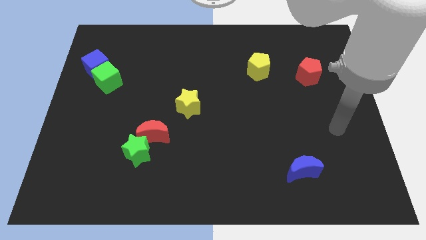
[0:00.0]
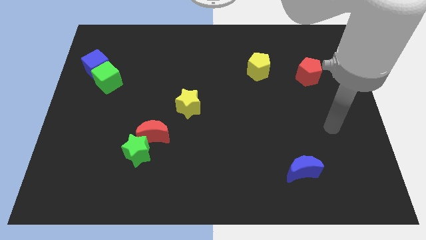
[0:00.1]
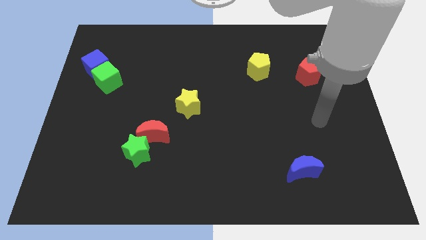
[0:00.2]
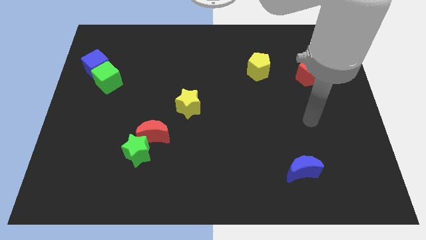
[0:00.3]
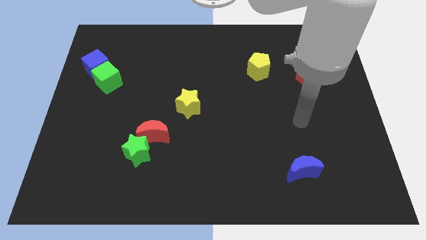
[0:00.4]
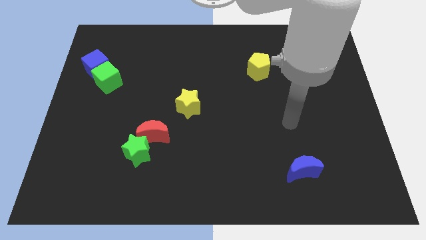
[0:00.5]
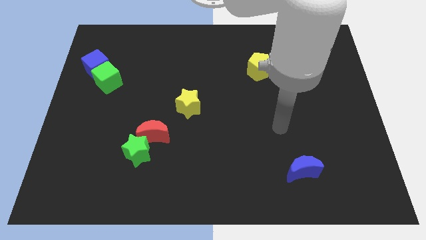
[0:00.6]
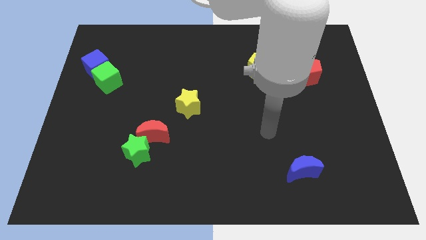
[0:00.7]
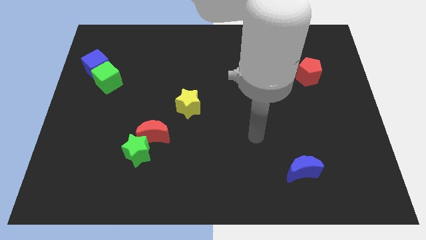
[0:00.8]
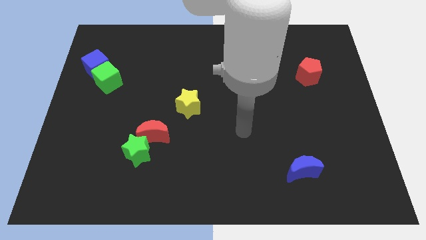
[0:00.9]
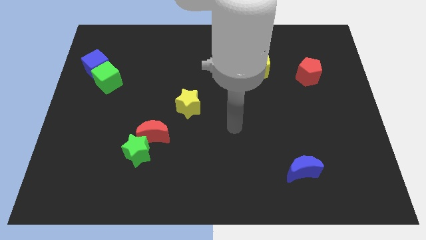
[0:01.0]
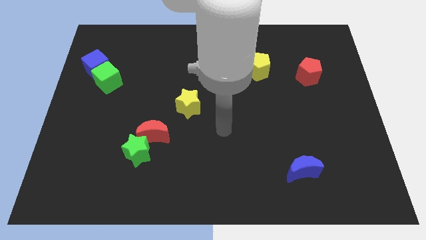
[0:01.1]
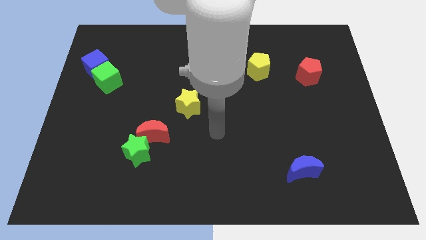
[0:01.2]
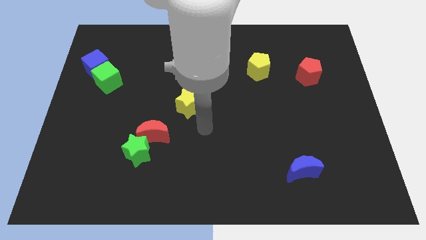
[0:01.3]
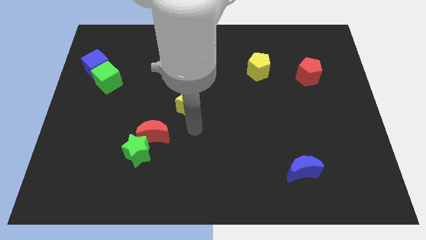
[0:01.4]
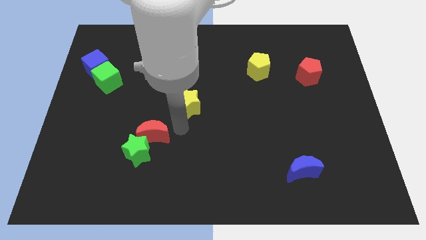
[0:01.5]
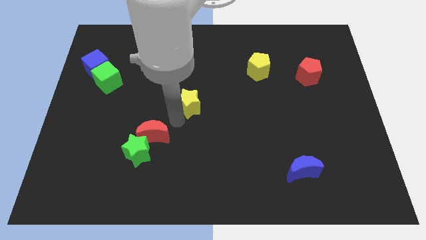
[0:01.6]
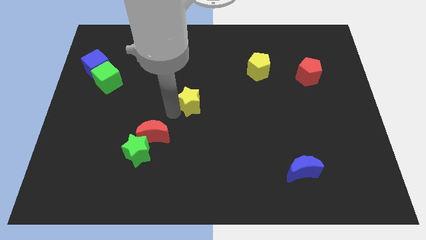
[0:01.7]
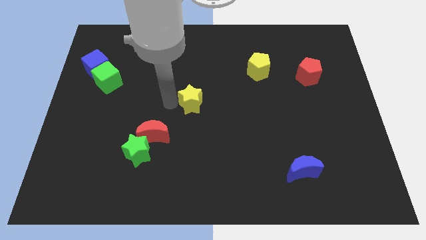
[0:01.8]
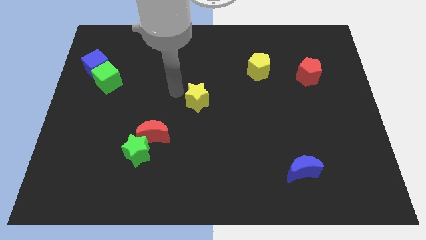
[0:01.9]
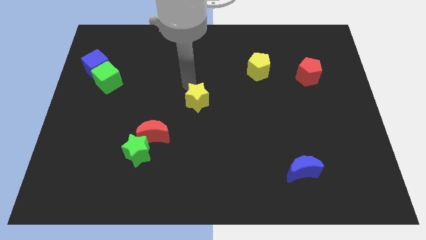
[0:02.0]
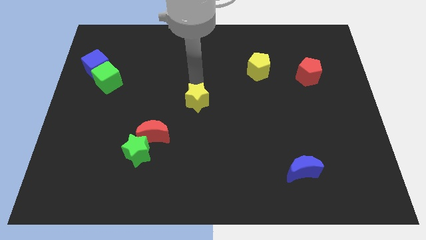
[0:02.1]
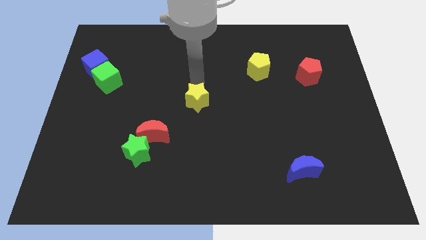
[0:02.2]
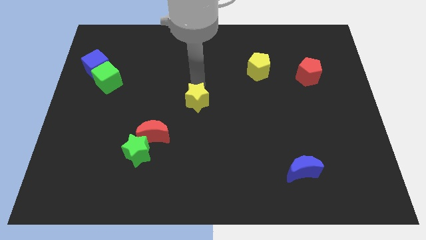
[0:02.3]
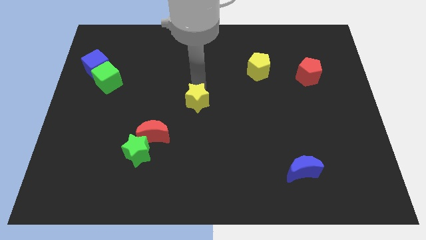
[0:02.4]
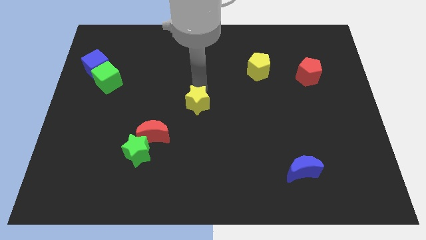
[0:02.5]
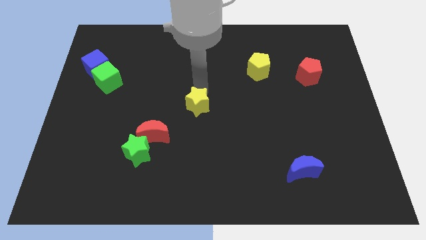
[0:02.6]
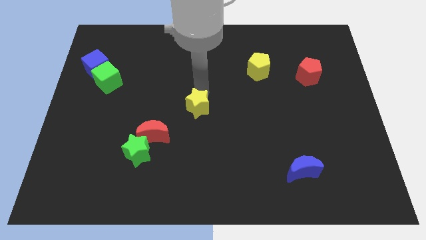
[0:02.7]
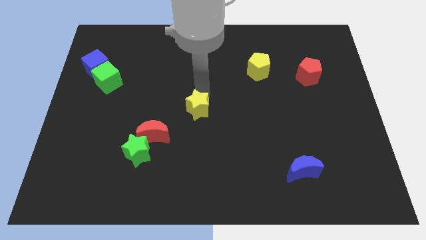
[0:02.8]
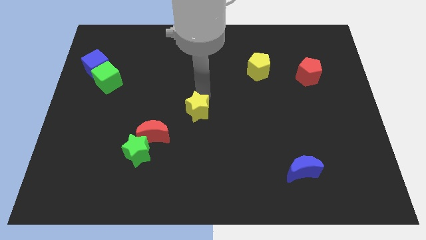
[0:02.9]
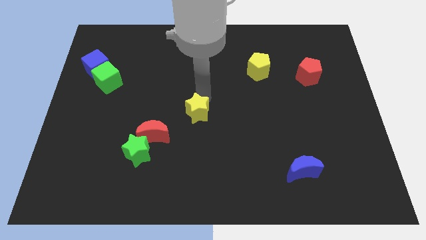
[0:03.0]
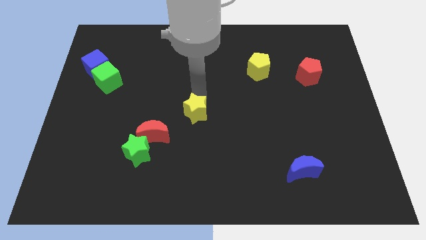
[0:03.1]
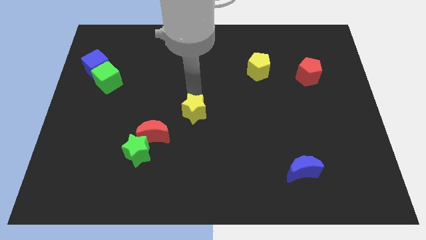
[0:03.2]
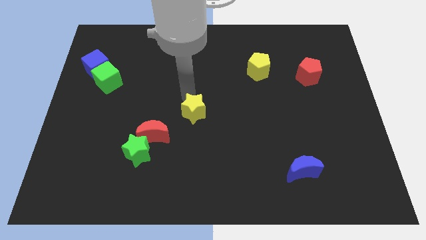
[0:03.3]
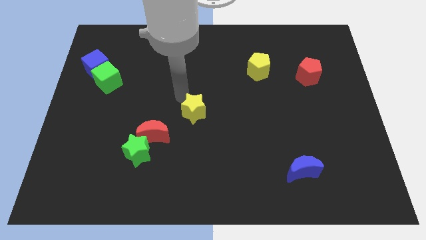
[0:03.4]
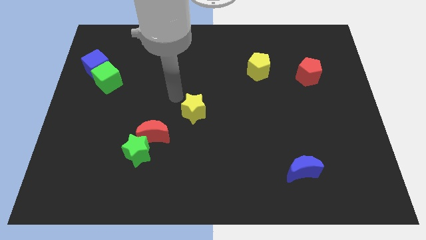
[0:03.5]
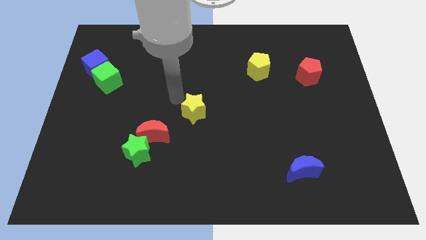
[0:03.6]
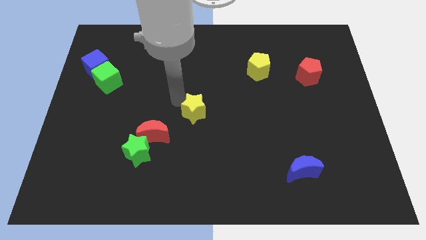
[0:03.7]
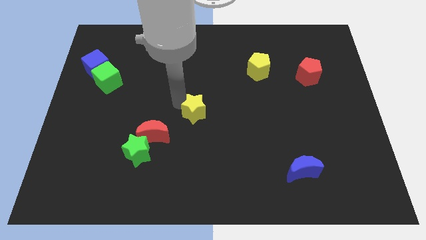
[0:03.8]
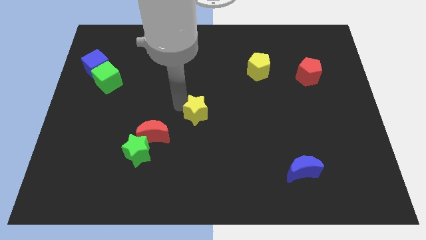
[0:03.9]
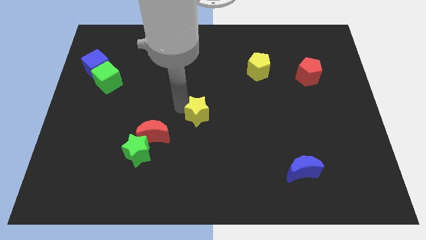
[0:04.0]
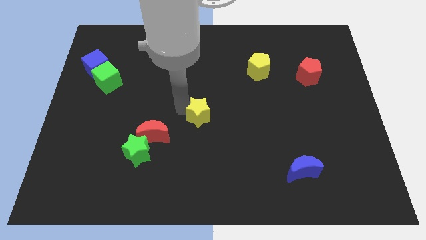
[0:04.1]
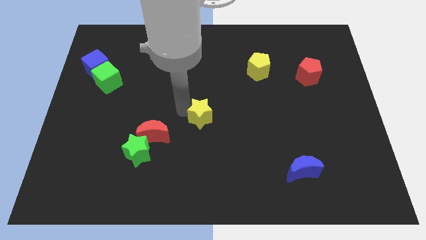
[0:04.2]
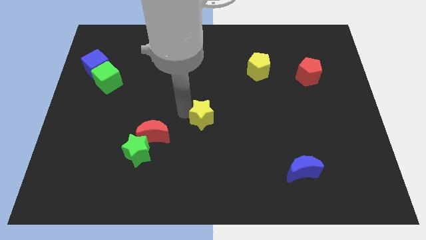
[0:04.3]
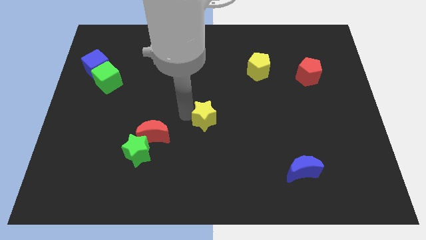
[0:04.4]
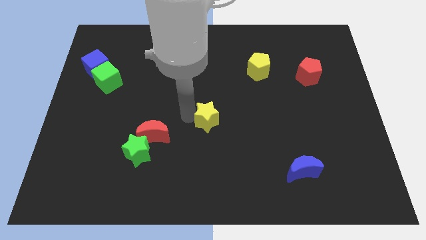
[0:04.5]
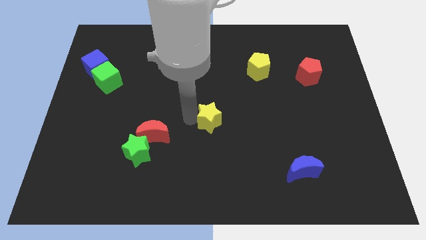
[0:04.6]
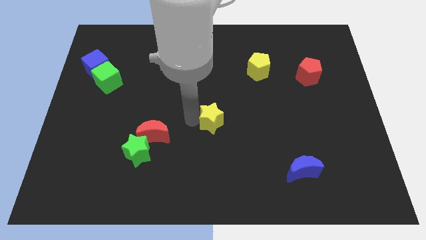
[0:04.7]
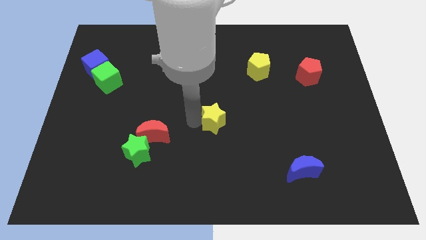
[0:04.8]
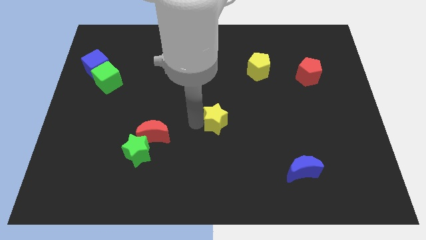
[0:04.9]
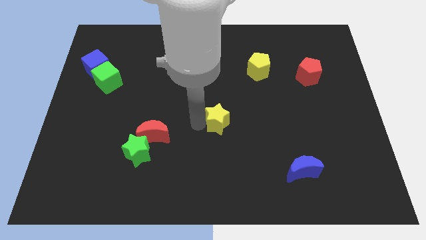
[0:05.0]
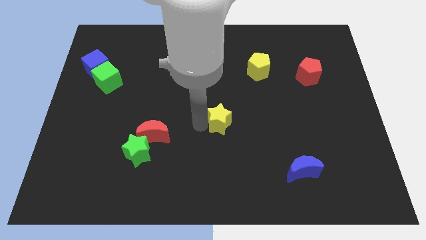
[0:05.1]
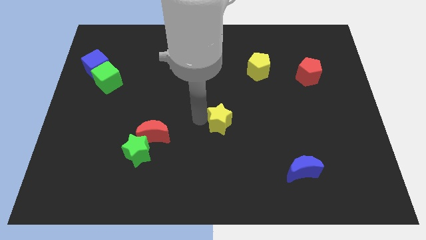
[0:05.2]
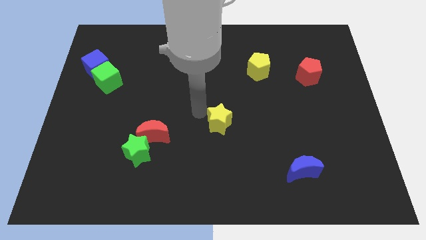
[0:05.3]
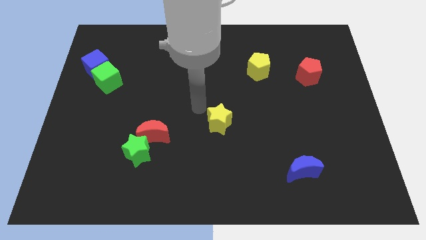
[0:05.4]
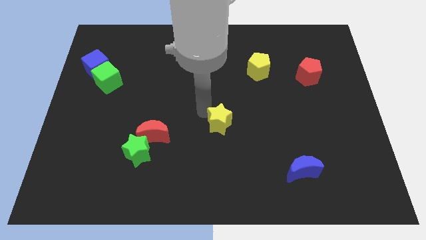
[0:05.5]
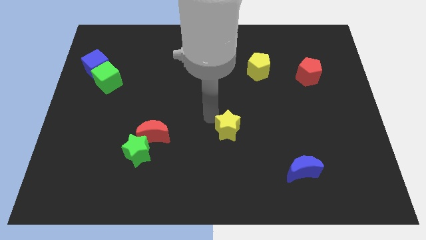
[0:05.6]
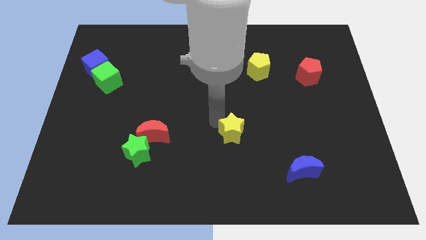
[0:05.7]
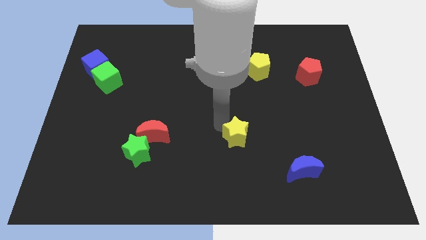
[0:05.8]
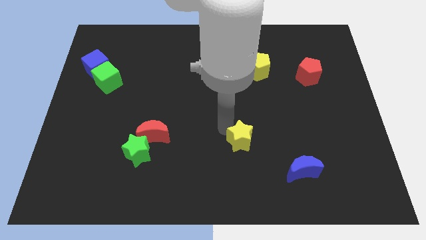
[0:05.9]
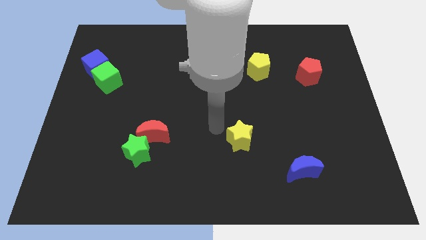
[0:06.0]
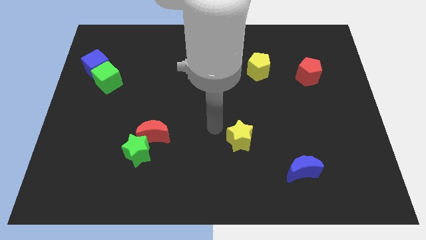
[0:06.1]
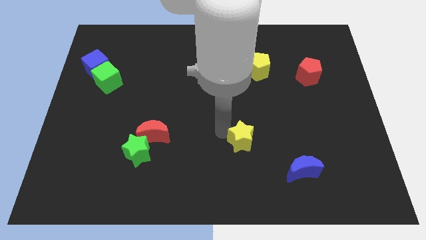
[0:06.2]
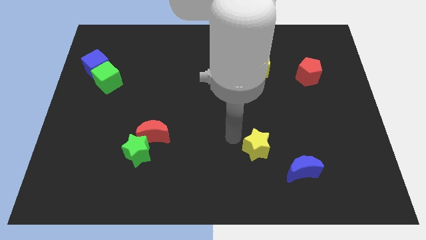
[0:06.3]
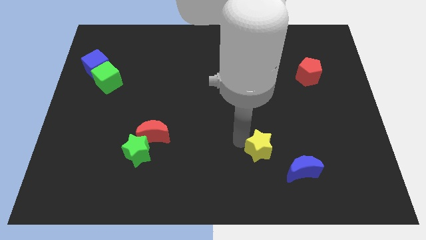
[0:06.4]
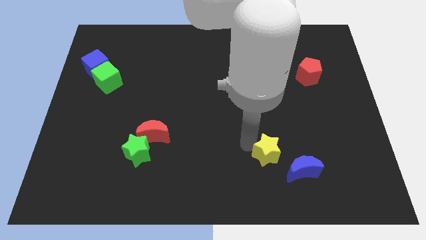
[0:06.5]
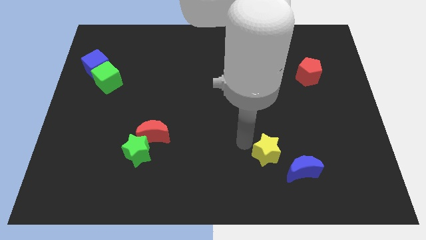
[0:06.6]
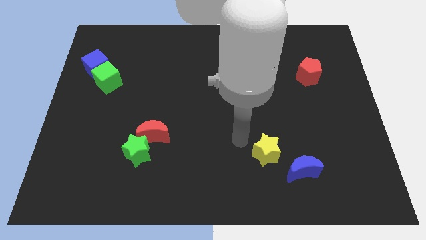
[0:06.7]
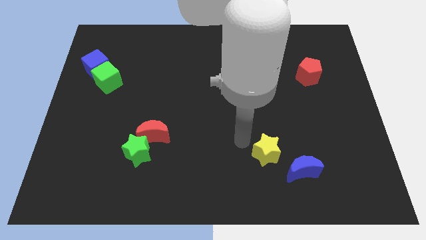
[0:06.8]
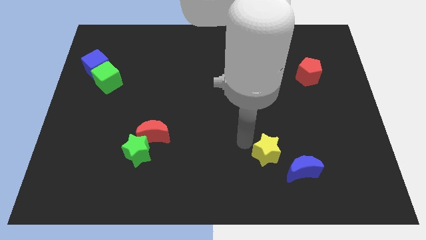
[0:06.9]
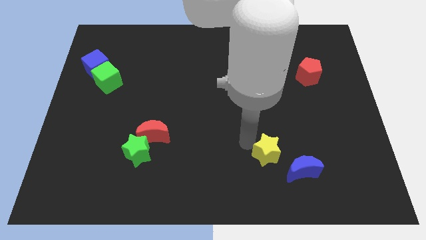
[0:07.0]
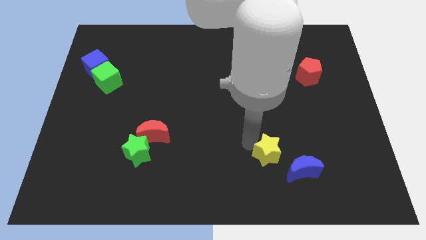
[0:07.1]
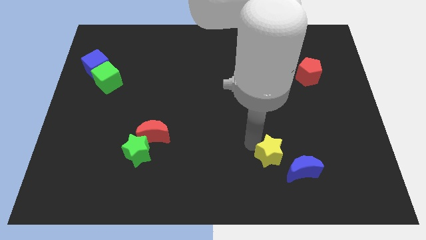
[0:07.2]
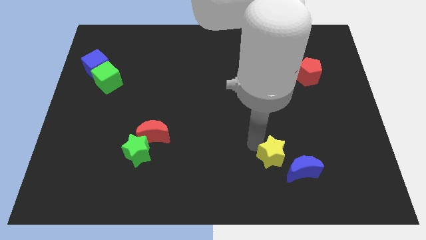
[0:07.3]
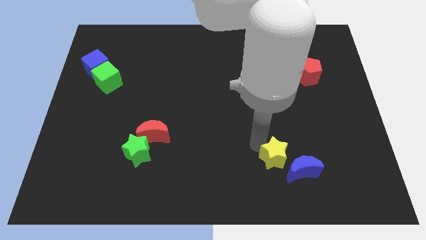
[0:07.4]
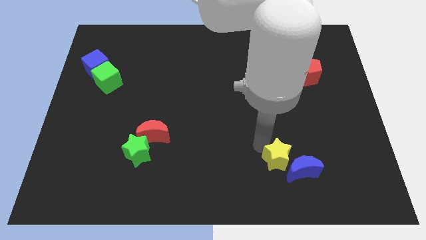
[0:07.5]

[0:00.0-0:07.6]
slide the yellow star to the blue moon

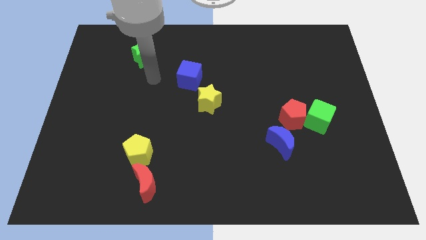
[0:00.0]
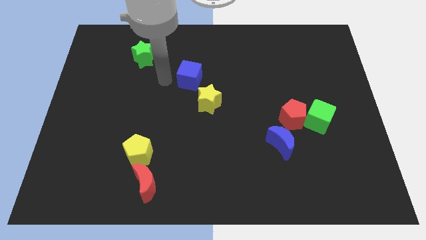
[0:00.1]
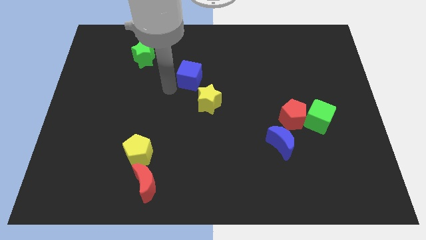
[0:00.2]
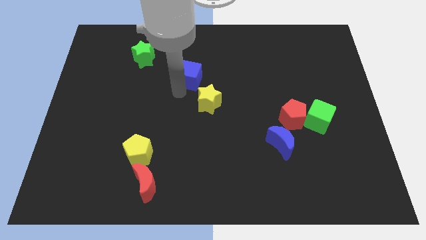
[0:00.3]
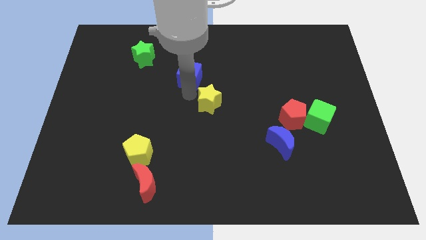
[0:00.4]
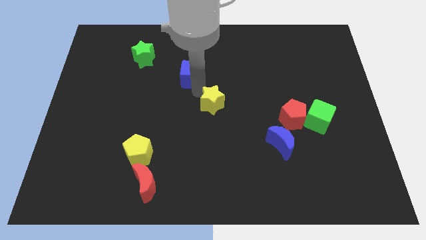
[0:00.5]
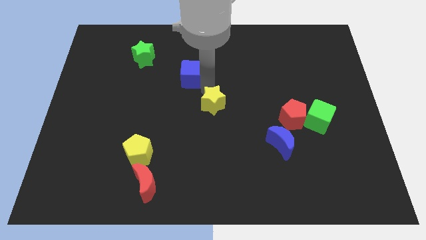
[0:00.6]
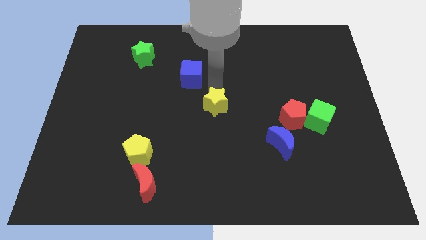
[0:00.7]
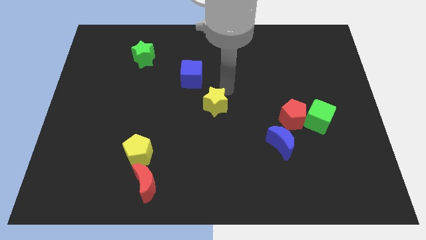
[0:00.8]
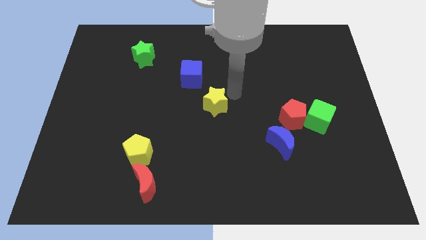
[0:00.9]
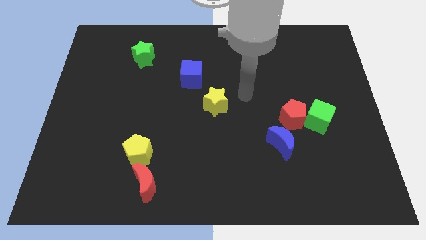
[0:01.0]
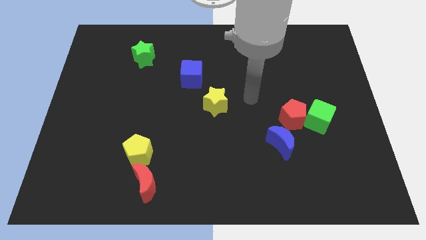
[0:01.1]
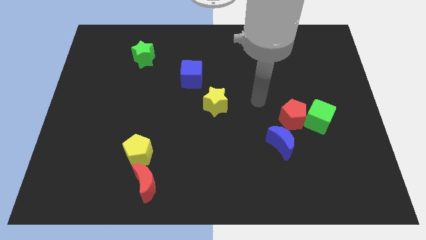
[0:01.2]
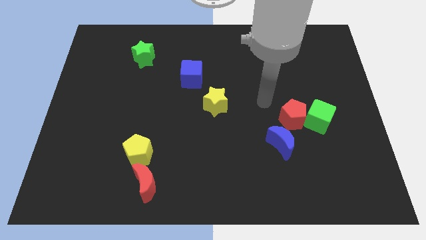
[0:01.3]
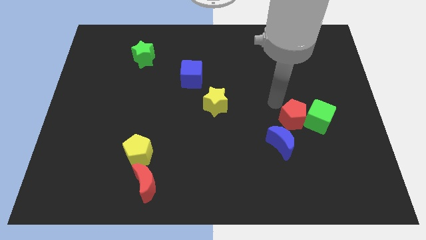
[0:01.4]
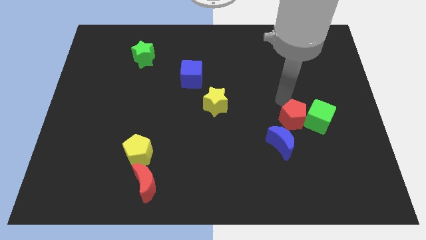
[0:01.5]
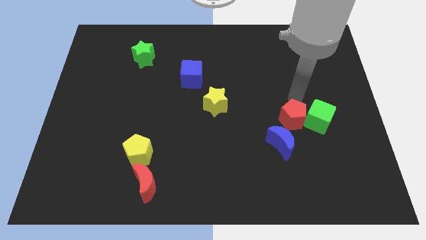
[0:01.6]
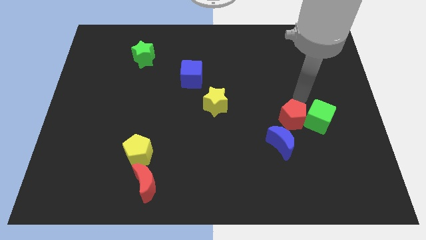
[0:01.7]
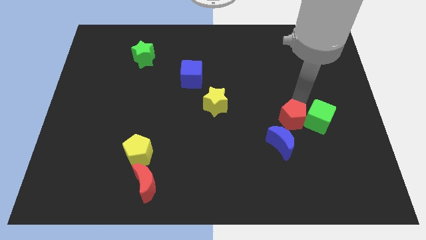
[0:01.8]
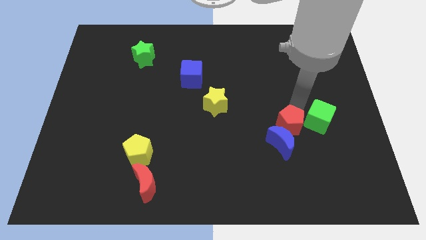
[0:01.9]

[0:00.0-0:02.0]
move the red pentagon close to the blue moon
